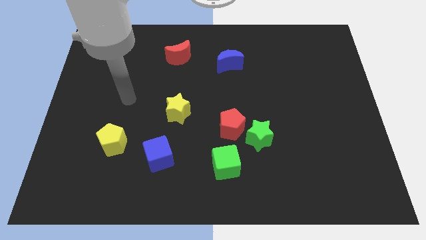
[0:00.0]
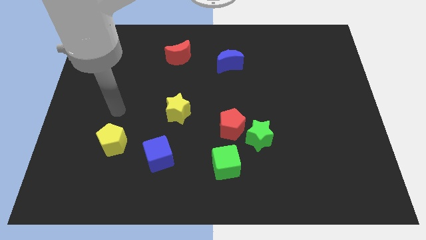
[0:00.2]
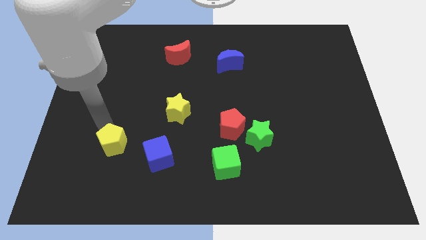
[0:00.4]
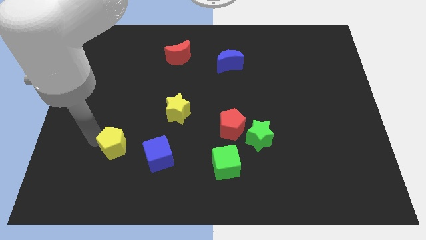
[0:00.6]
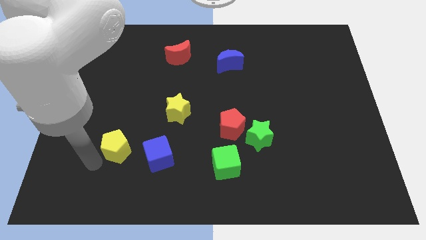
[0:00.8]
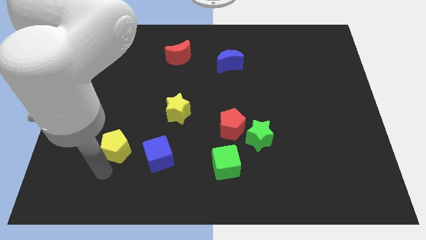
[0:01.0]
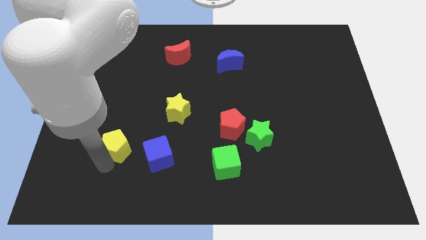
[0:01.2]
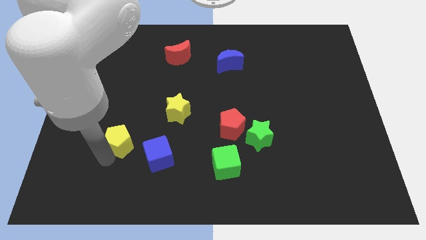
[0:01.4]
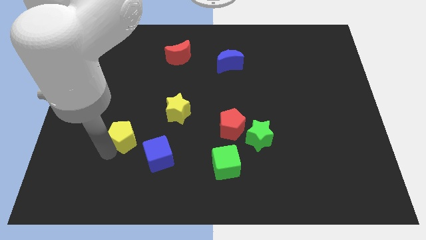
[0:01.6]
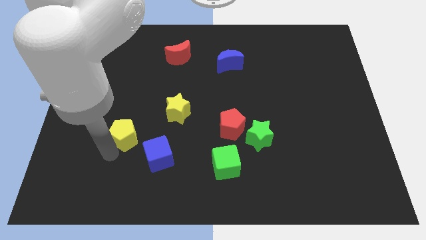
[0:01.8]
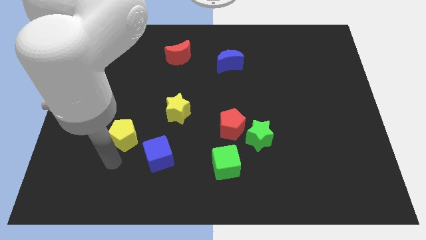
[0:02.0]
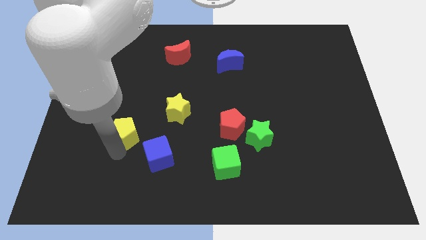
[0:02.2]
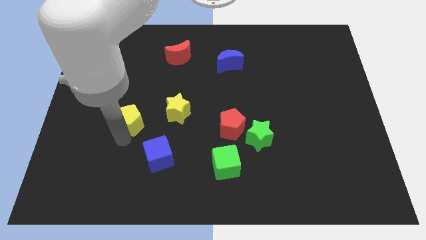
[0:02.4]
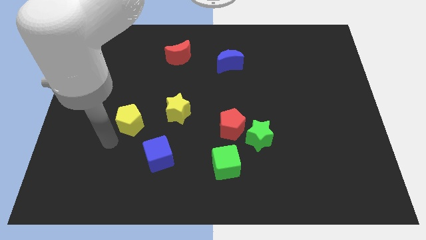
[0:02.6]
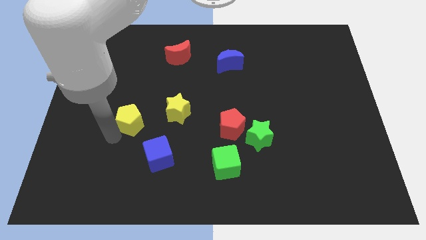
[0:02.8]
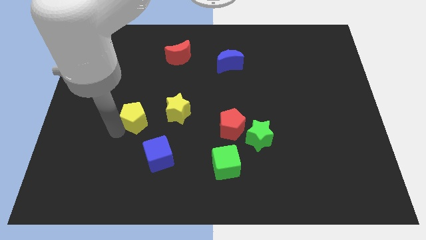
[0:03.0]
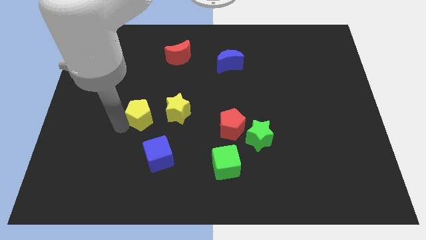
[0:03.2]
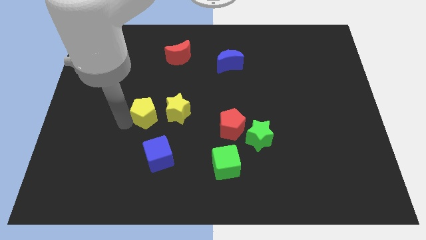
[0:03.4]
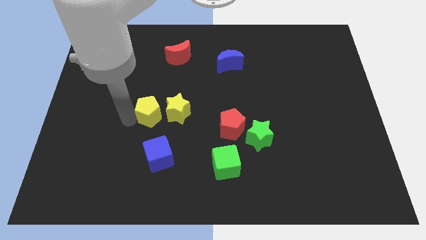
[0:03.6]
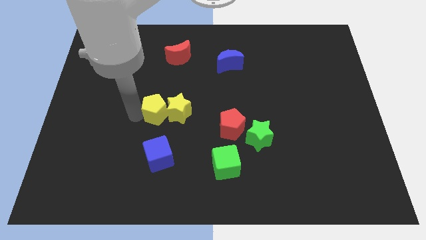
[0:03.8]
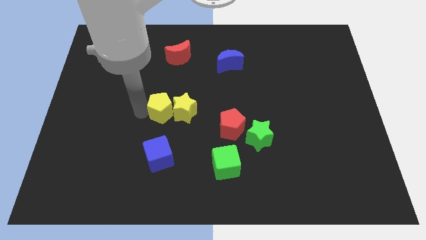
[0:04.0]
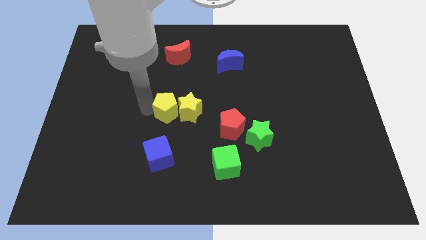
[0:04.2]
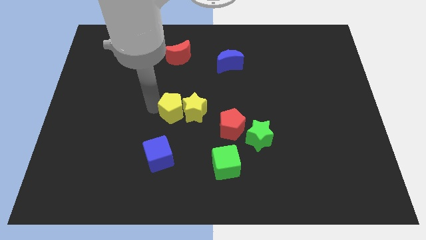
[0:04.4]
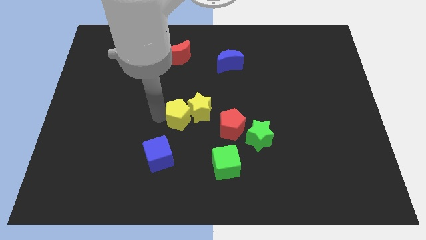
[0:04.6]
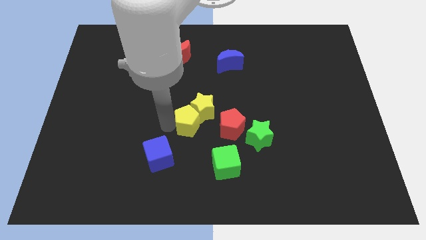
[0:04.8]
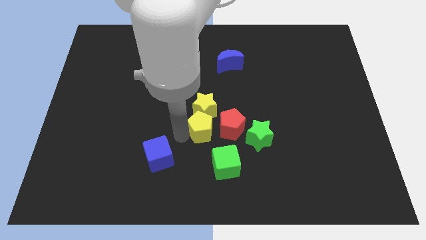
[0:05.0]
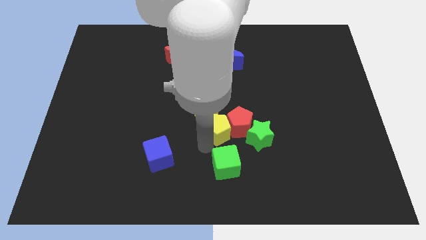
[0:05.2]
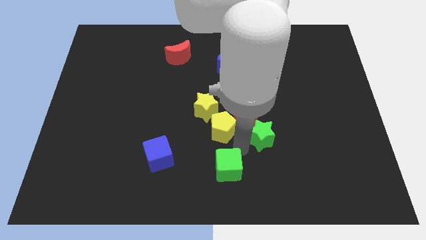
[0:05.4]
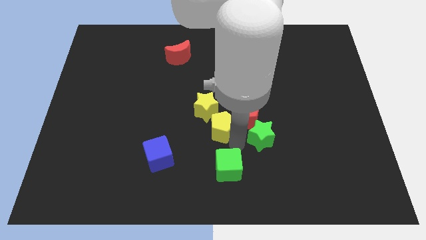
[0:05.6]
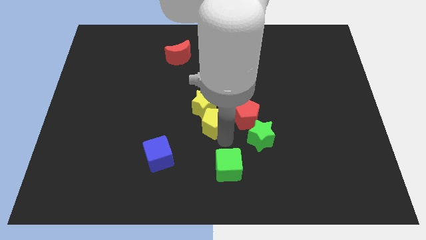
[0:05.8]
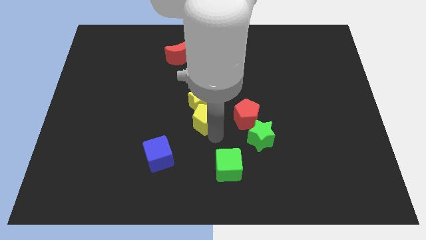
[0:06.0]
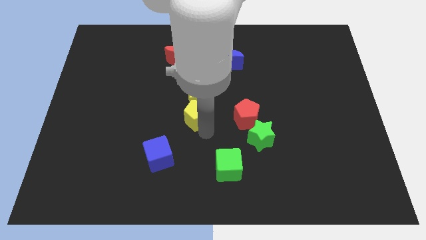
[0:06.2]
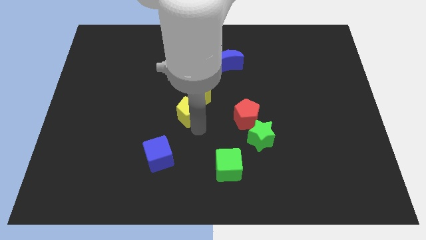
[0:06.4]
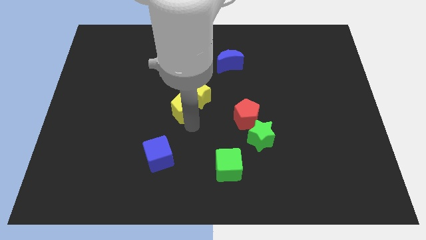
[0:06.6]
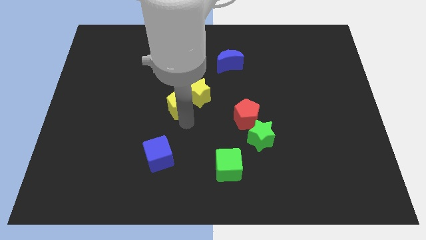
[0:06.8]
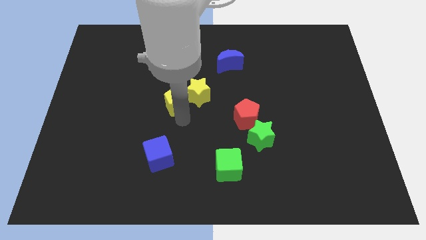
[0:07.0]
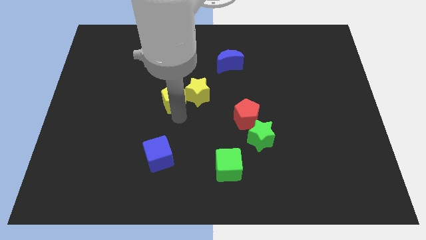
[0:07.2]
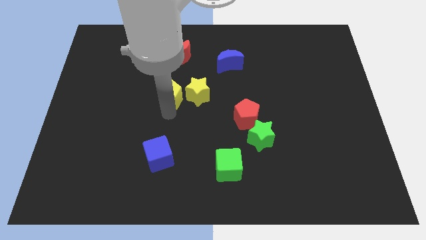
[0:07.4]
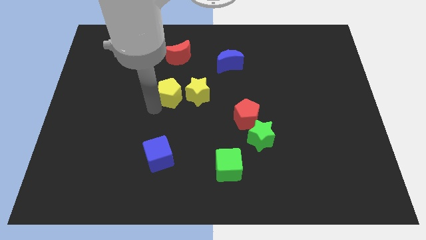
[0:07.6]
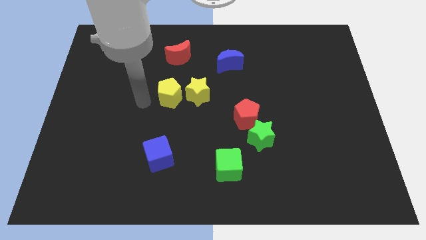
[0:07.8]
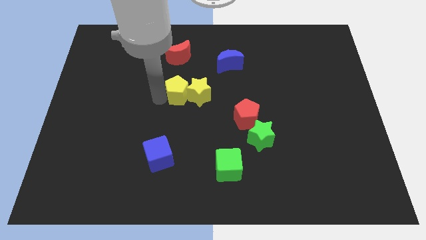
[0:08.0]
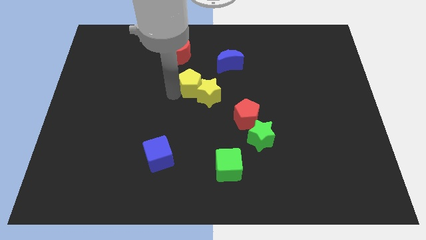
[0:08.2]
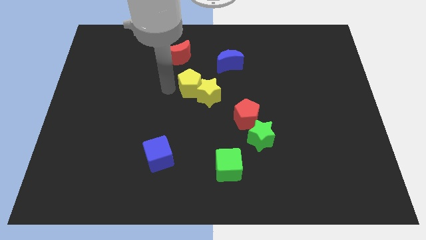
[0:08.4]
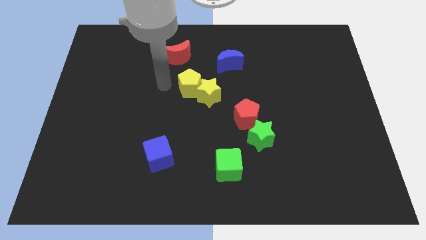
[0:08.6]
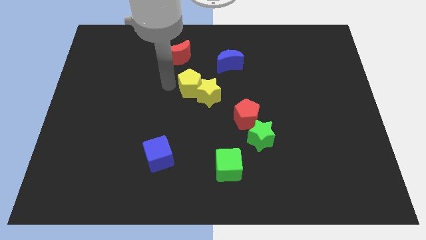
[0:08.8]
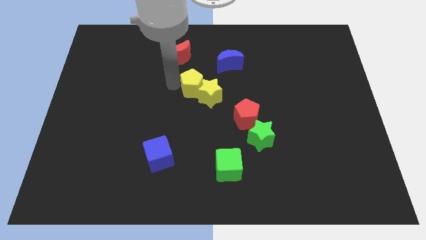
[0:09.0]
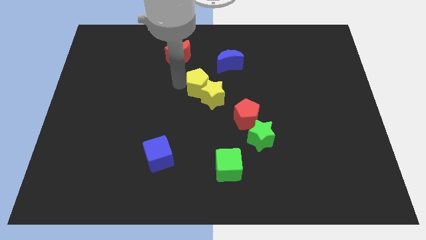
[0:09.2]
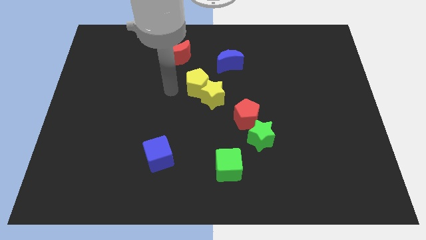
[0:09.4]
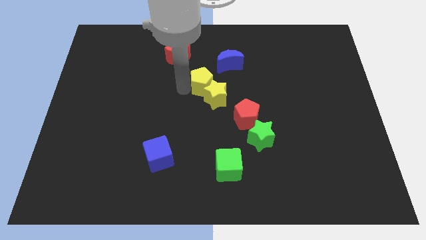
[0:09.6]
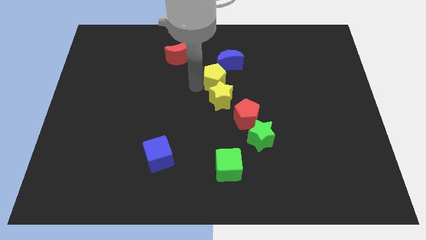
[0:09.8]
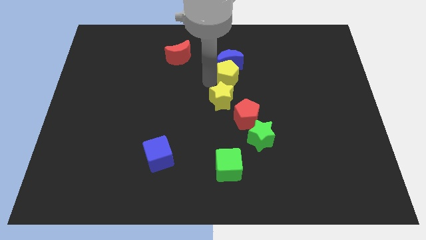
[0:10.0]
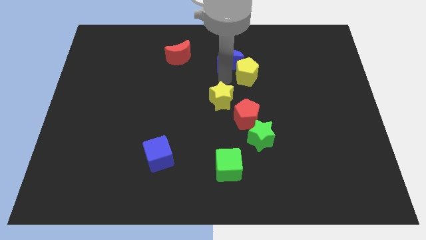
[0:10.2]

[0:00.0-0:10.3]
move the yellow pentagon right of the blue moon

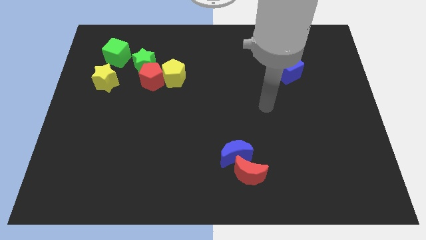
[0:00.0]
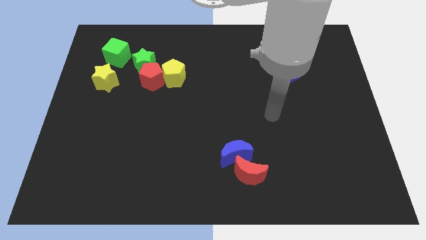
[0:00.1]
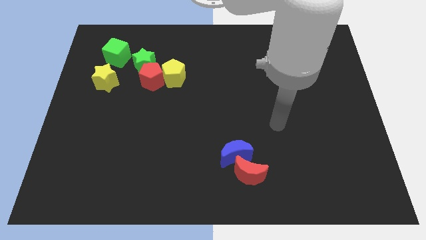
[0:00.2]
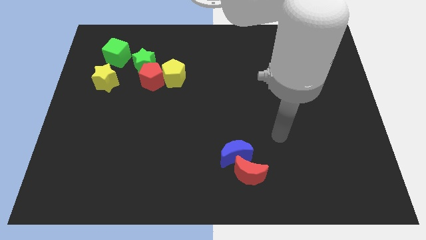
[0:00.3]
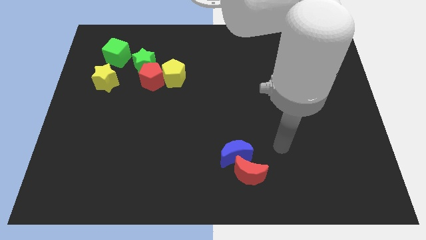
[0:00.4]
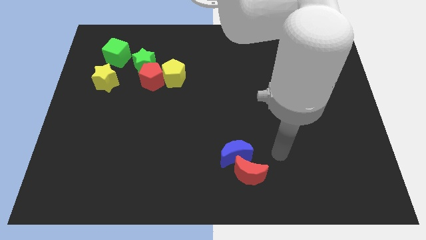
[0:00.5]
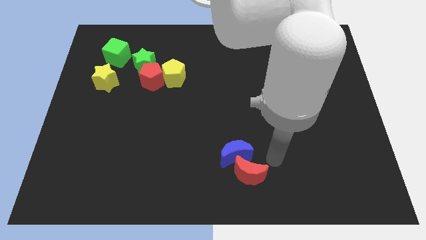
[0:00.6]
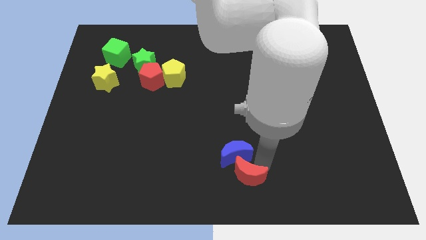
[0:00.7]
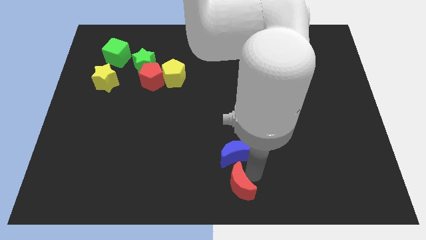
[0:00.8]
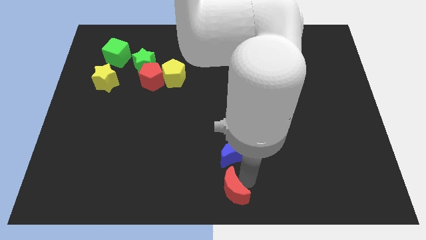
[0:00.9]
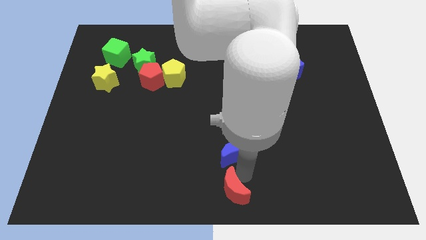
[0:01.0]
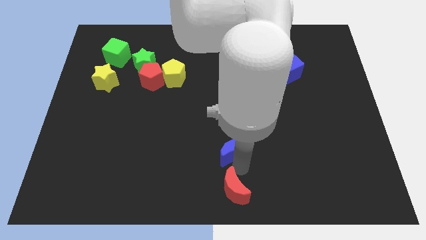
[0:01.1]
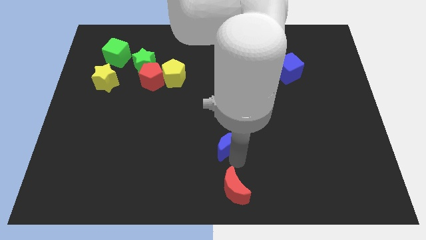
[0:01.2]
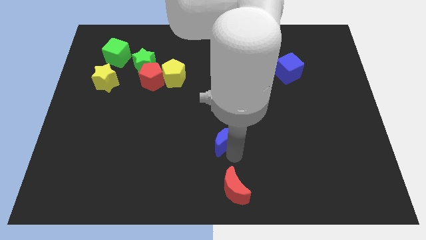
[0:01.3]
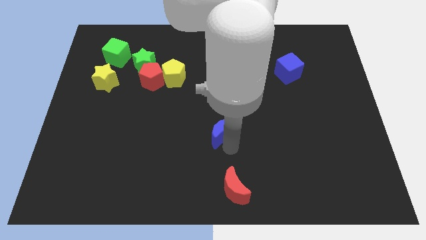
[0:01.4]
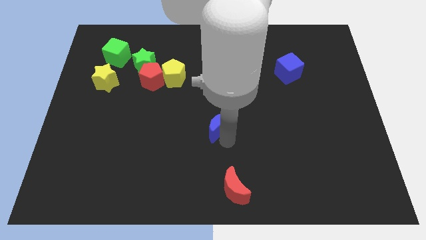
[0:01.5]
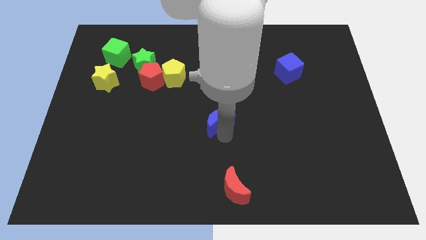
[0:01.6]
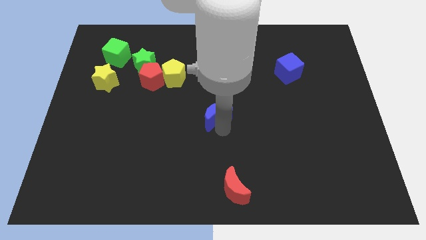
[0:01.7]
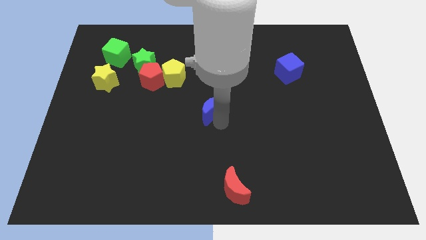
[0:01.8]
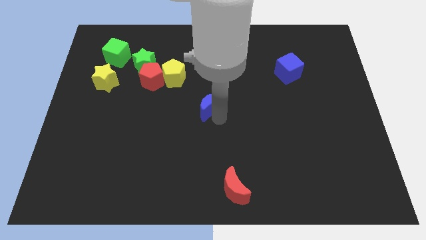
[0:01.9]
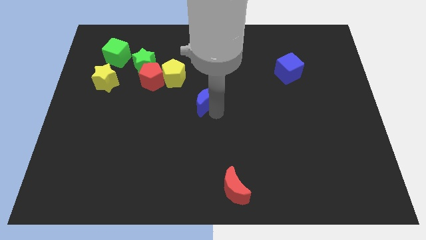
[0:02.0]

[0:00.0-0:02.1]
push the blue moon to the bottom right of the yellow pentagon

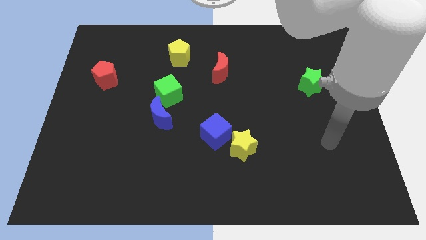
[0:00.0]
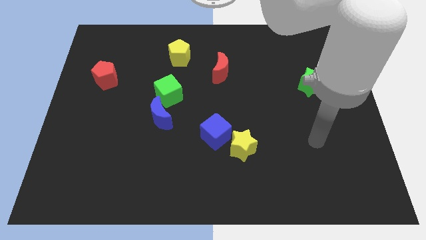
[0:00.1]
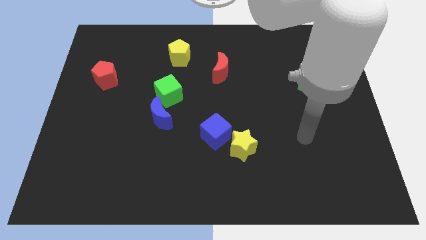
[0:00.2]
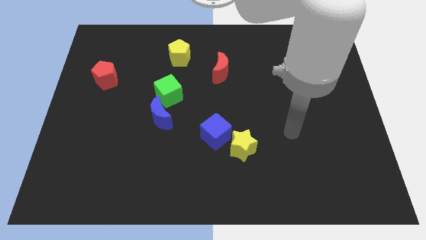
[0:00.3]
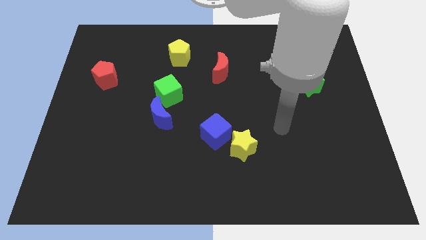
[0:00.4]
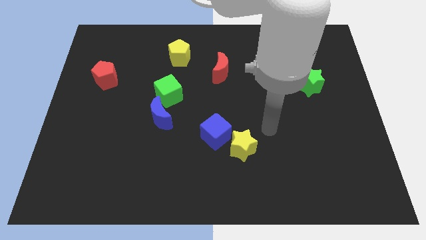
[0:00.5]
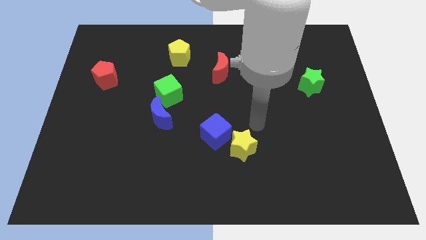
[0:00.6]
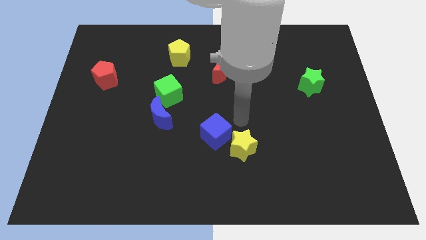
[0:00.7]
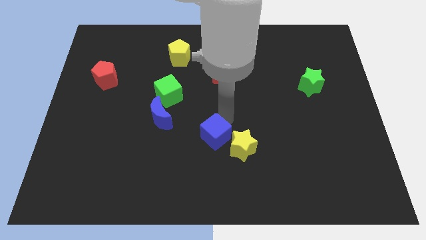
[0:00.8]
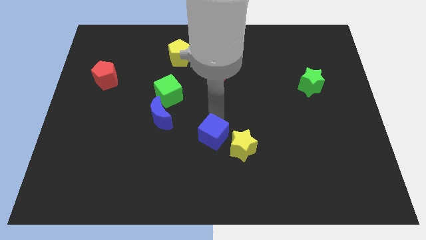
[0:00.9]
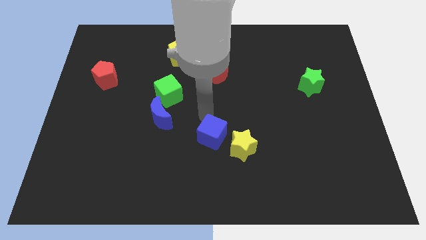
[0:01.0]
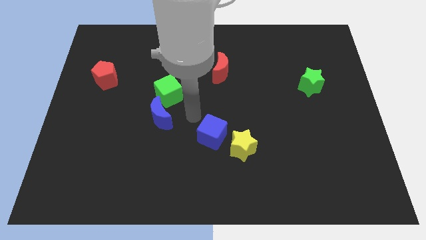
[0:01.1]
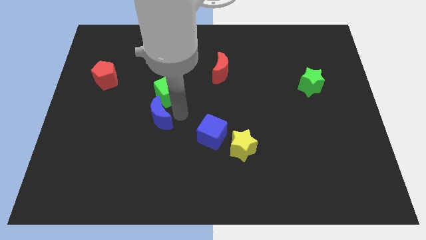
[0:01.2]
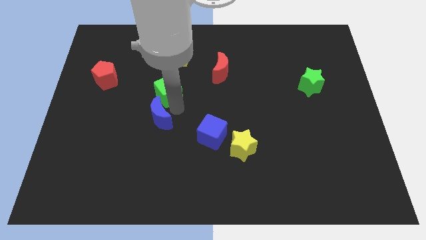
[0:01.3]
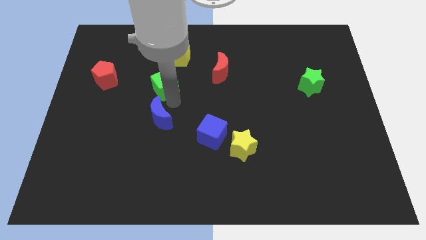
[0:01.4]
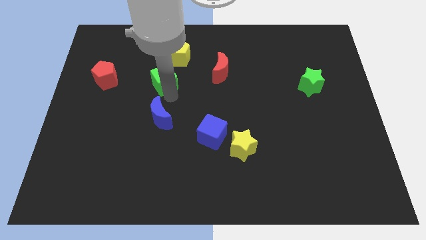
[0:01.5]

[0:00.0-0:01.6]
slide the green cube to the bottom left side of the yellow pentagon
